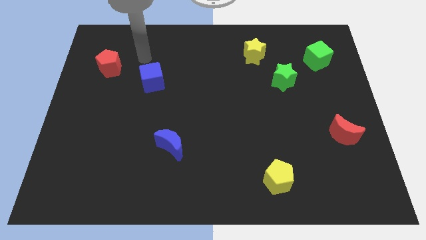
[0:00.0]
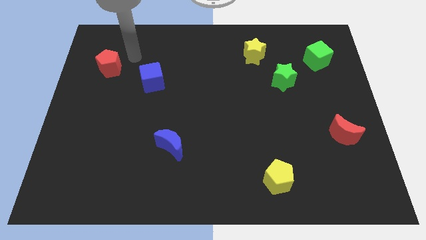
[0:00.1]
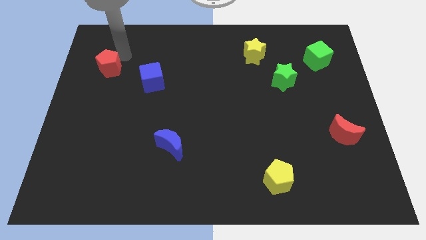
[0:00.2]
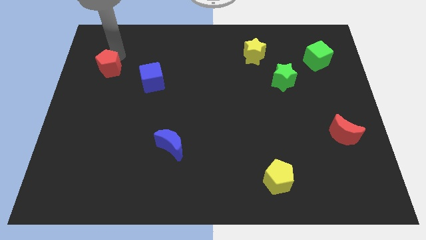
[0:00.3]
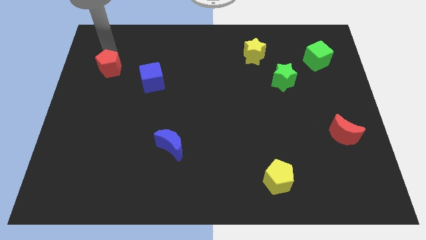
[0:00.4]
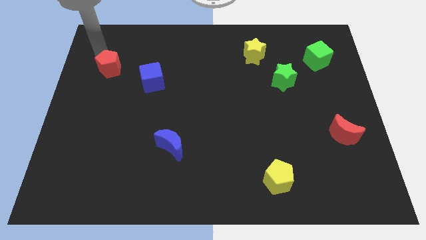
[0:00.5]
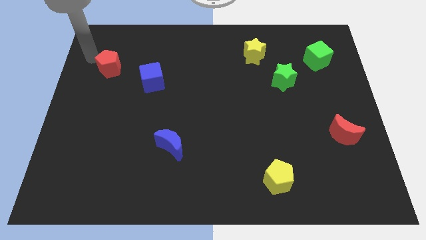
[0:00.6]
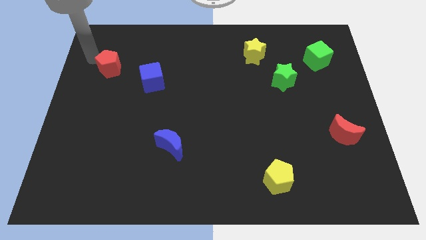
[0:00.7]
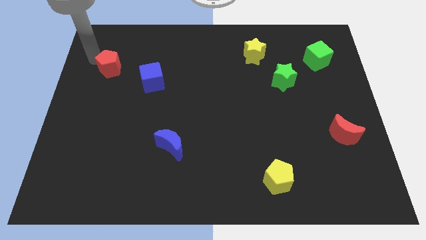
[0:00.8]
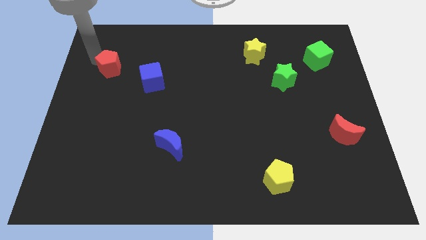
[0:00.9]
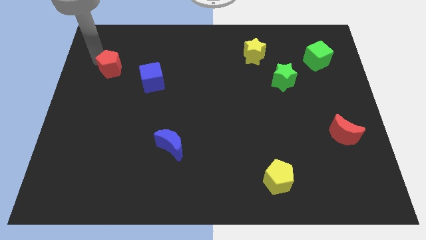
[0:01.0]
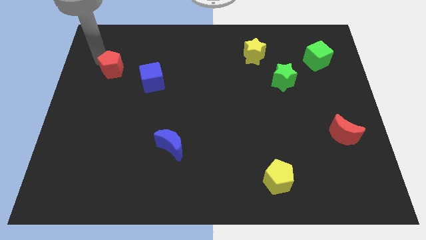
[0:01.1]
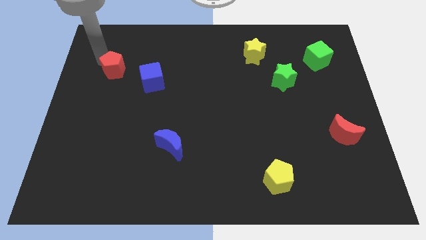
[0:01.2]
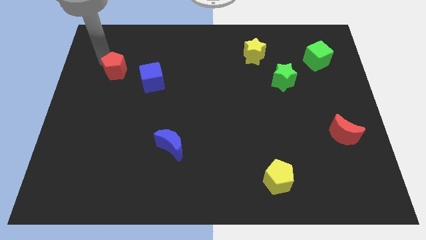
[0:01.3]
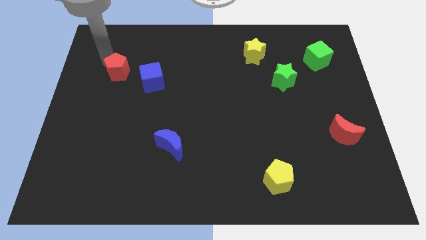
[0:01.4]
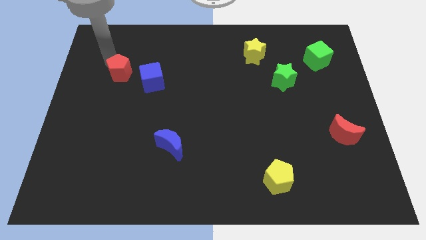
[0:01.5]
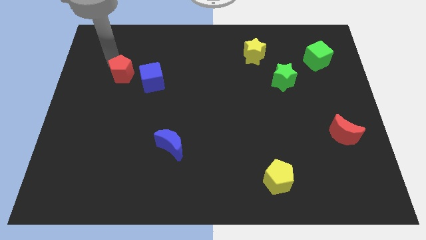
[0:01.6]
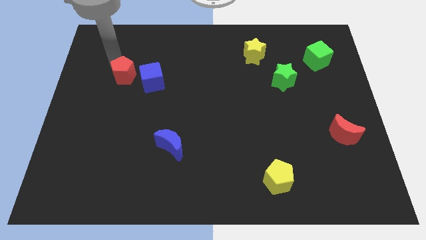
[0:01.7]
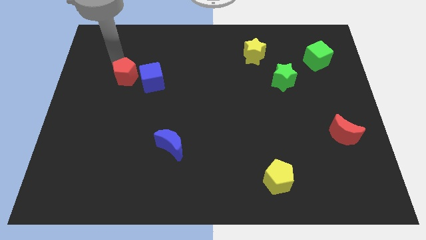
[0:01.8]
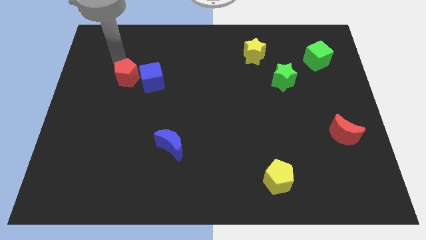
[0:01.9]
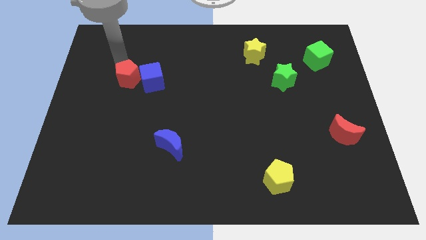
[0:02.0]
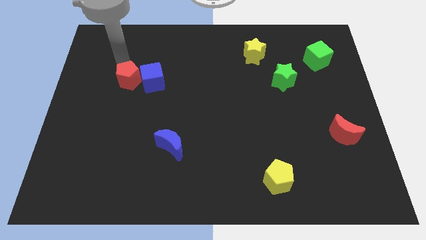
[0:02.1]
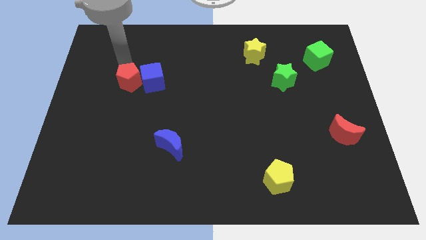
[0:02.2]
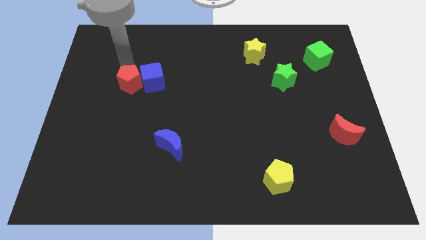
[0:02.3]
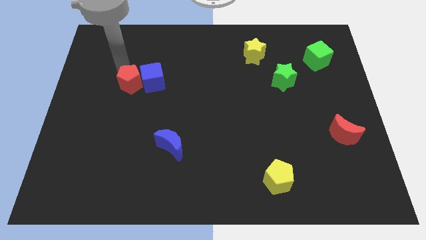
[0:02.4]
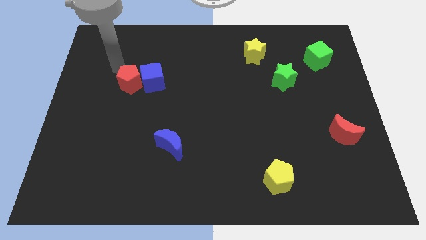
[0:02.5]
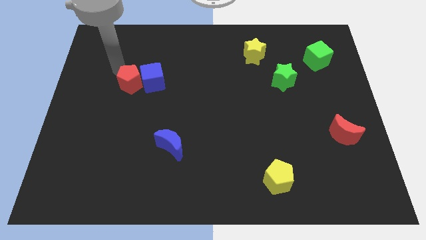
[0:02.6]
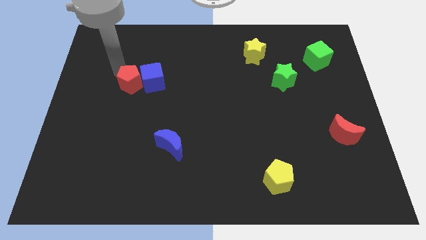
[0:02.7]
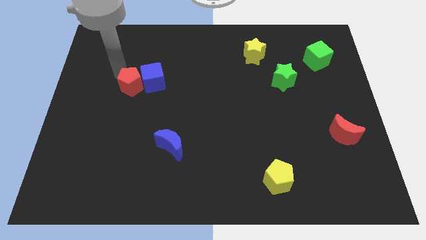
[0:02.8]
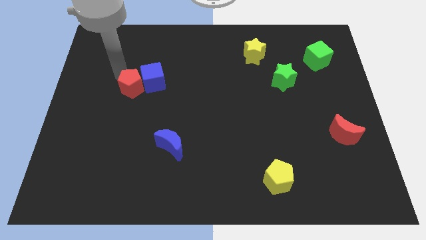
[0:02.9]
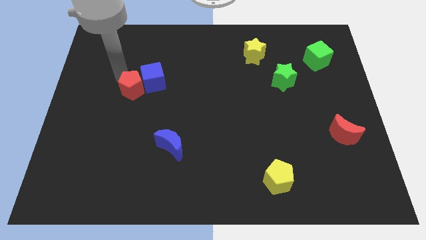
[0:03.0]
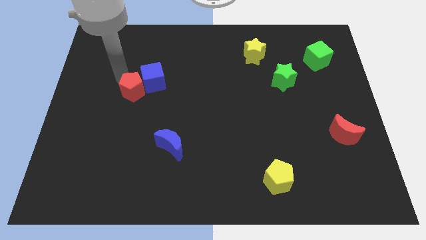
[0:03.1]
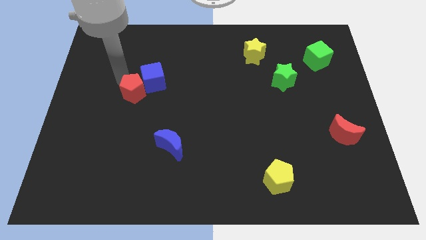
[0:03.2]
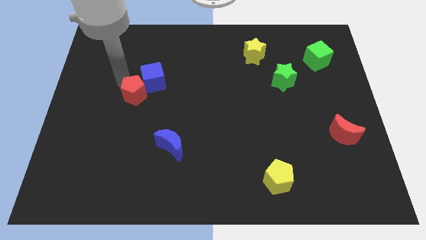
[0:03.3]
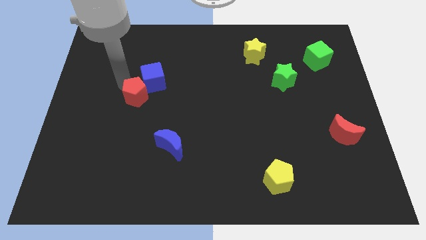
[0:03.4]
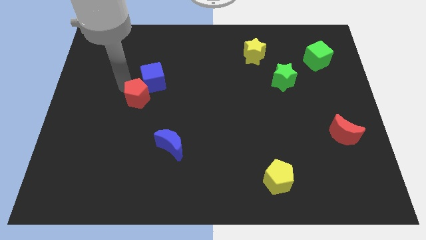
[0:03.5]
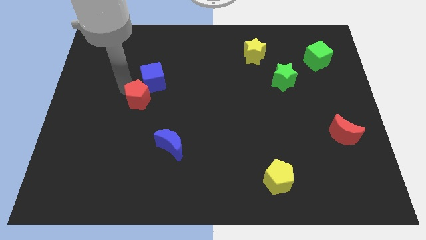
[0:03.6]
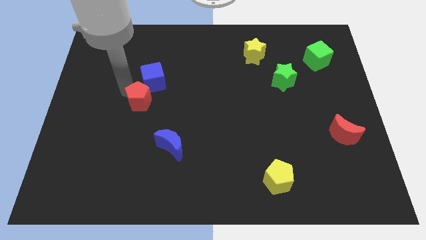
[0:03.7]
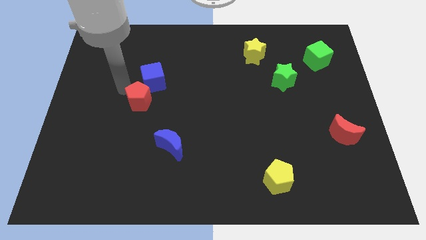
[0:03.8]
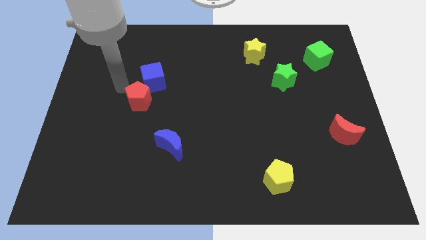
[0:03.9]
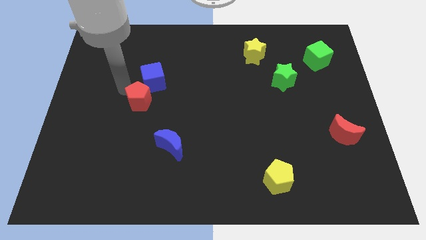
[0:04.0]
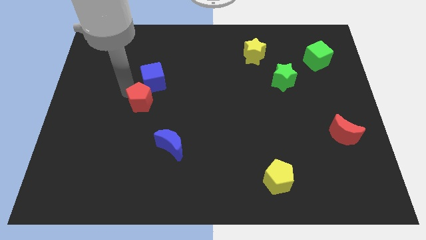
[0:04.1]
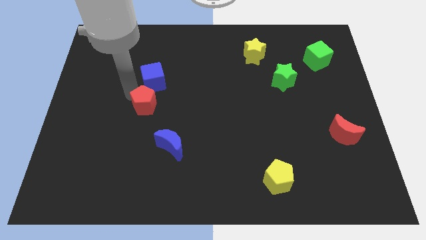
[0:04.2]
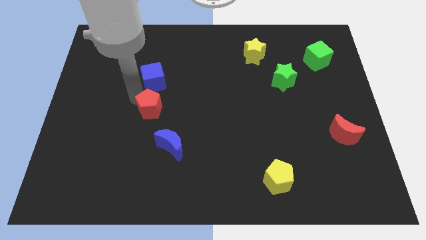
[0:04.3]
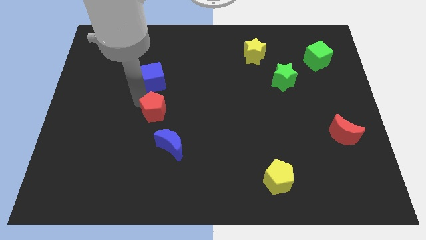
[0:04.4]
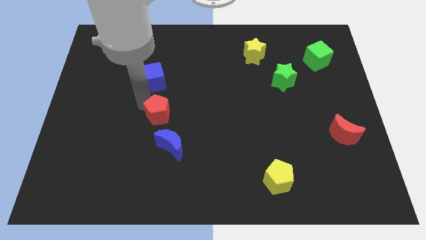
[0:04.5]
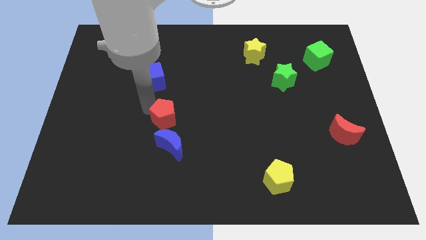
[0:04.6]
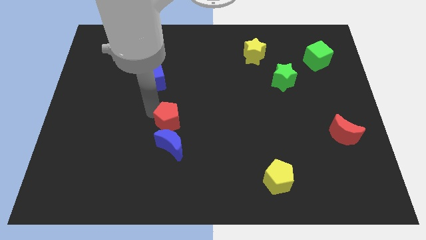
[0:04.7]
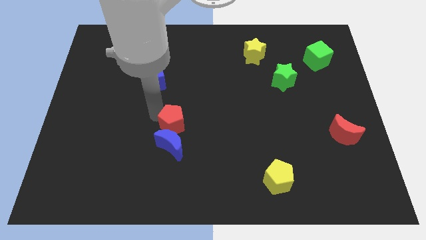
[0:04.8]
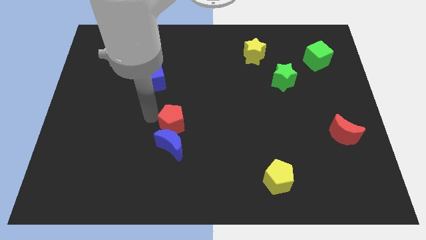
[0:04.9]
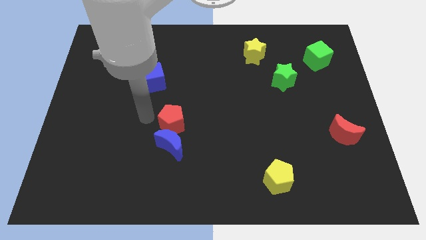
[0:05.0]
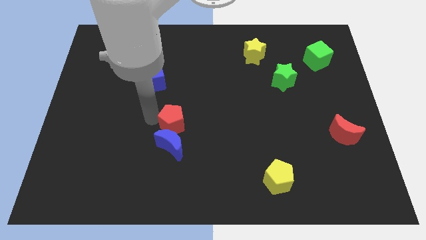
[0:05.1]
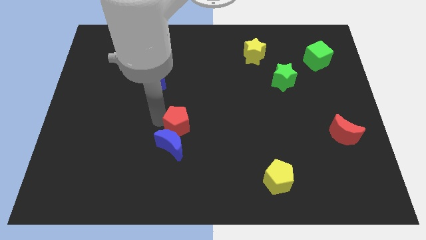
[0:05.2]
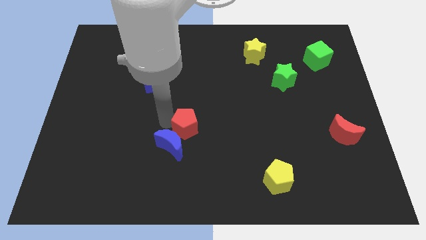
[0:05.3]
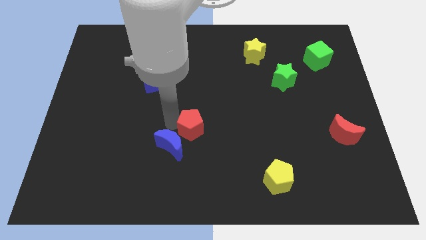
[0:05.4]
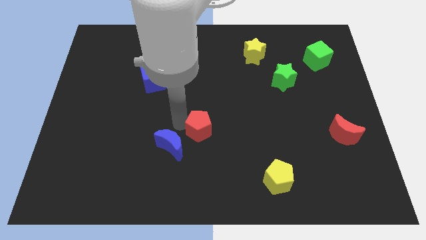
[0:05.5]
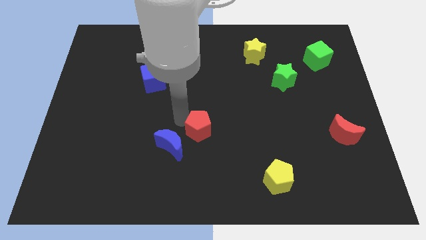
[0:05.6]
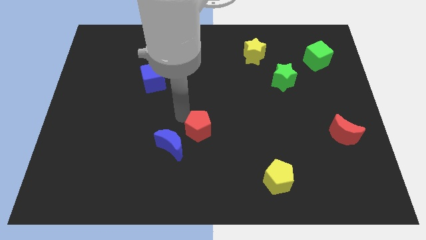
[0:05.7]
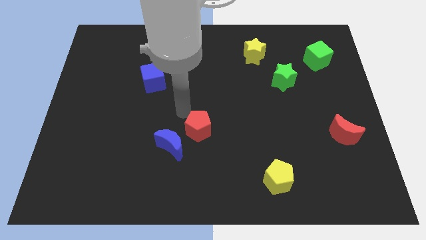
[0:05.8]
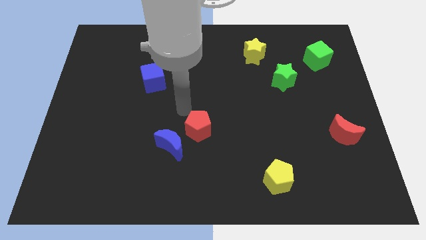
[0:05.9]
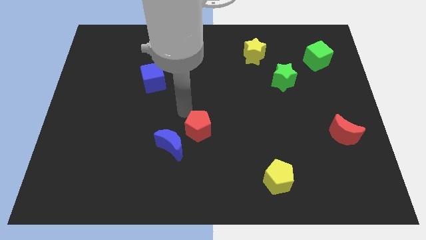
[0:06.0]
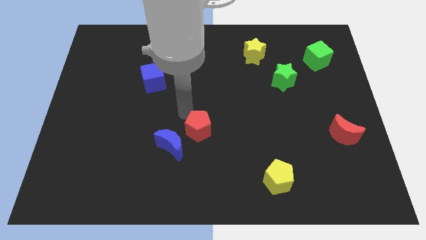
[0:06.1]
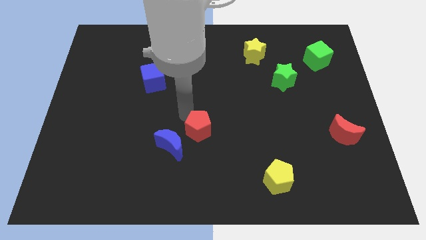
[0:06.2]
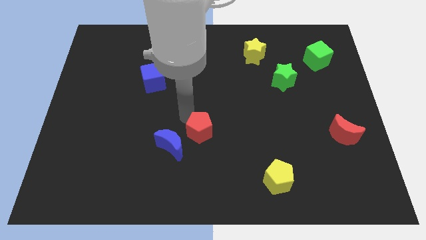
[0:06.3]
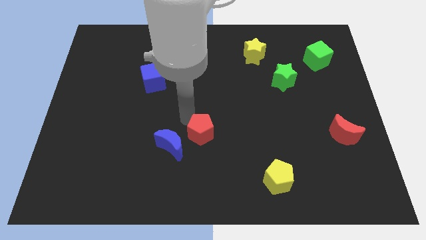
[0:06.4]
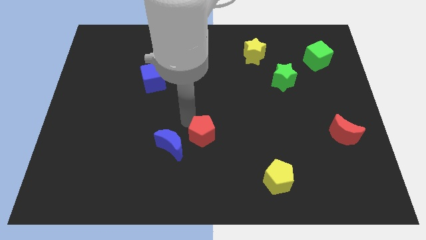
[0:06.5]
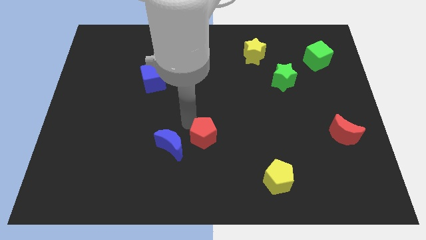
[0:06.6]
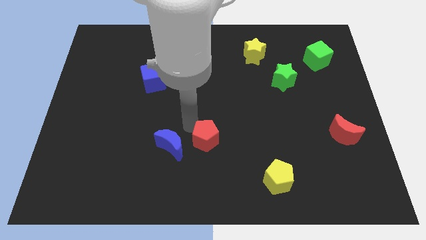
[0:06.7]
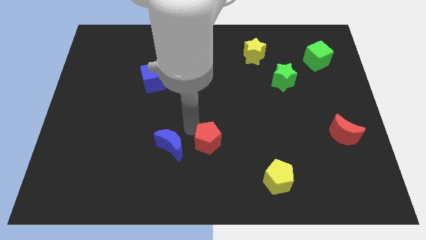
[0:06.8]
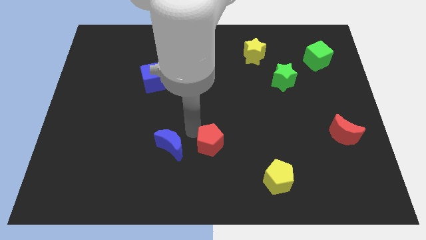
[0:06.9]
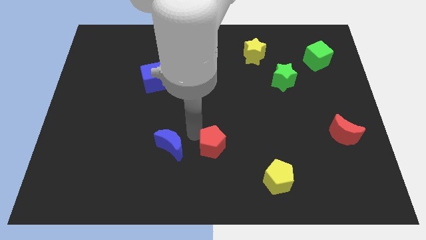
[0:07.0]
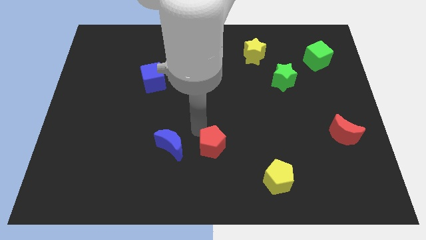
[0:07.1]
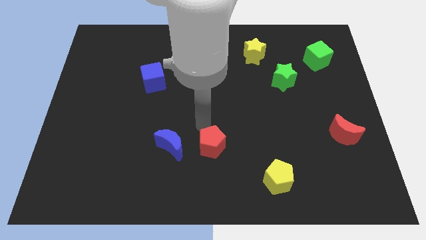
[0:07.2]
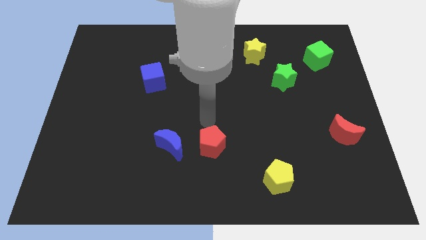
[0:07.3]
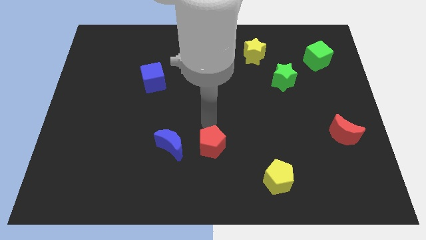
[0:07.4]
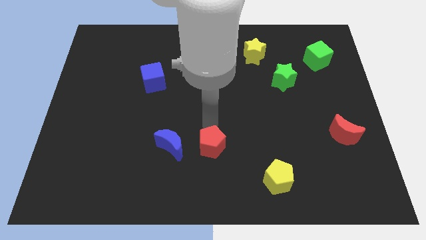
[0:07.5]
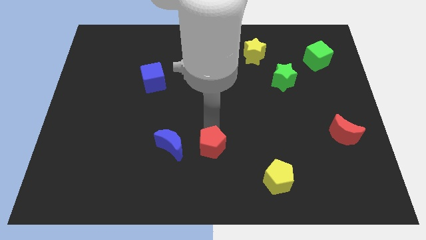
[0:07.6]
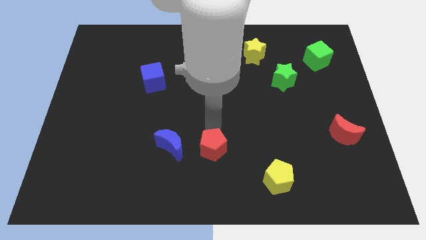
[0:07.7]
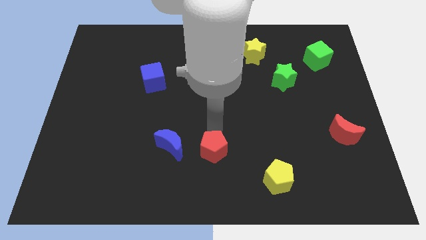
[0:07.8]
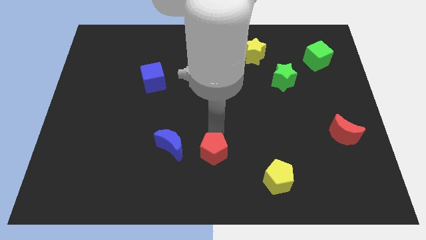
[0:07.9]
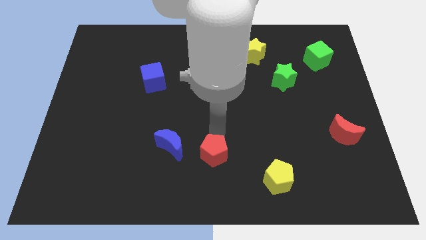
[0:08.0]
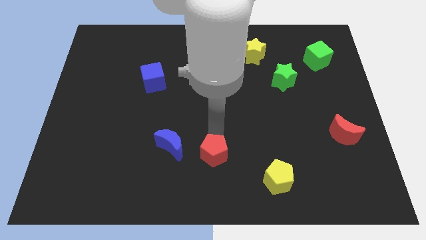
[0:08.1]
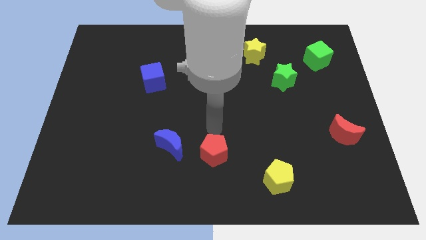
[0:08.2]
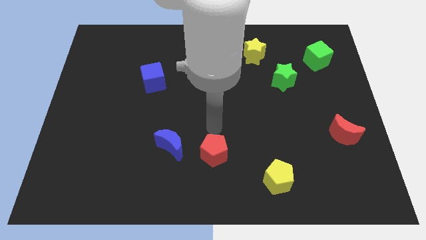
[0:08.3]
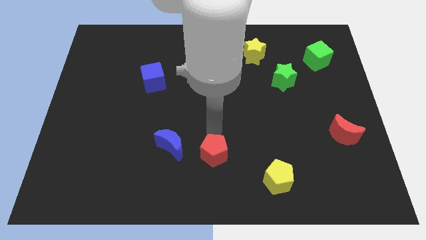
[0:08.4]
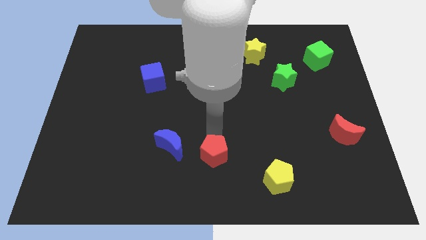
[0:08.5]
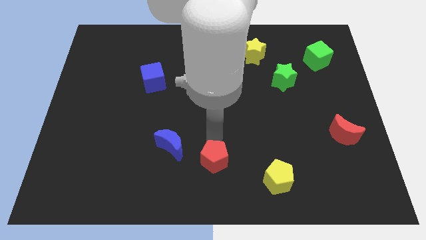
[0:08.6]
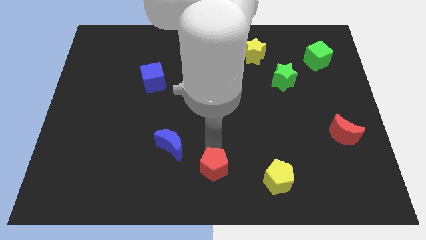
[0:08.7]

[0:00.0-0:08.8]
move the red pentagon left of the yellow pentagon
